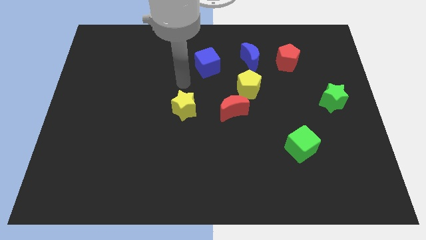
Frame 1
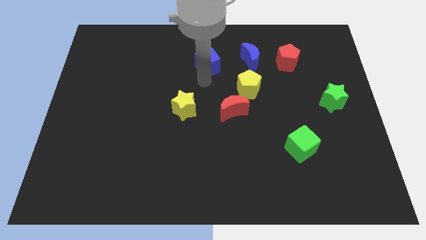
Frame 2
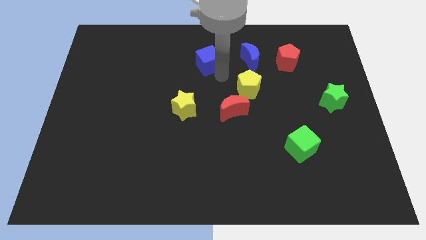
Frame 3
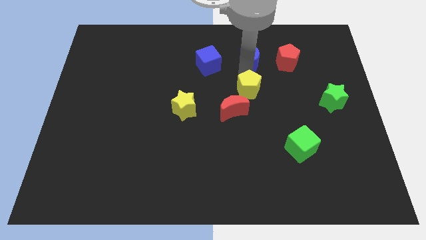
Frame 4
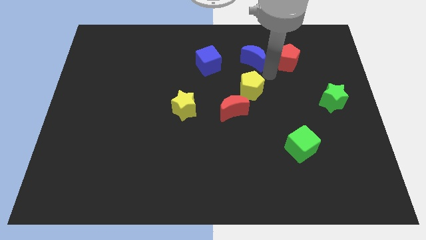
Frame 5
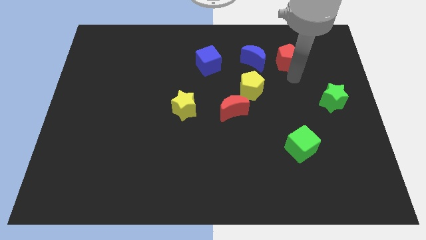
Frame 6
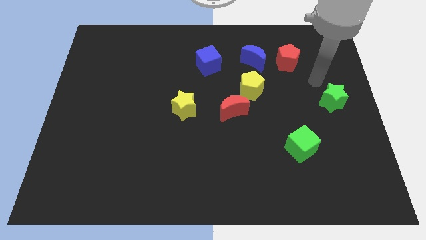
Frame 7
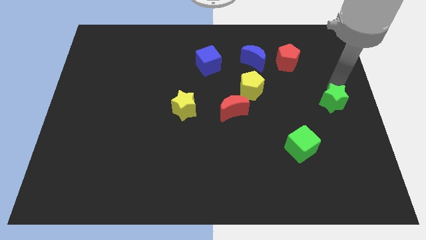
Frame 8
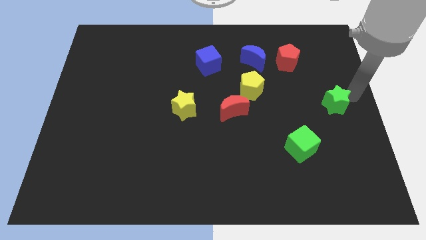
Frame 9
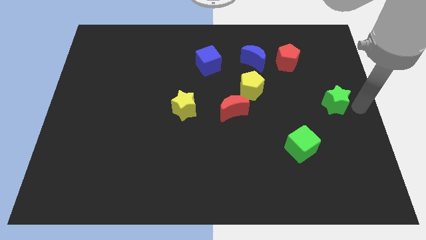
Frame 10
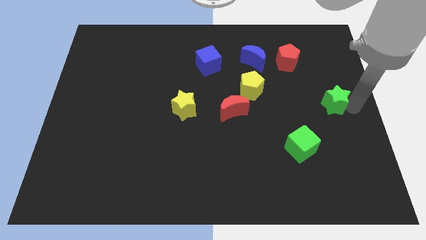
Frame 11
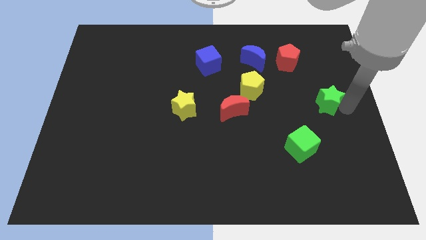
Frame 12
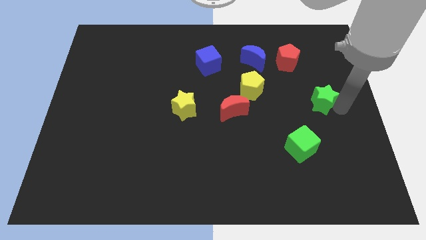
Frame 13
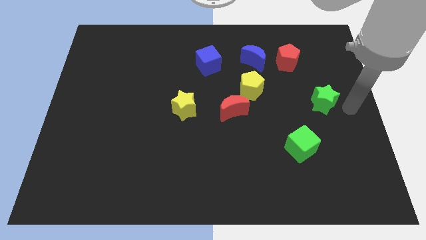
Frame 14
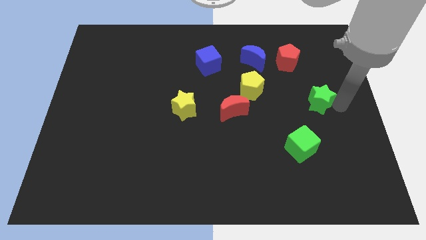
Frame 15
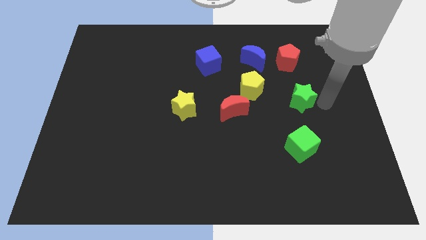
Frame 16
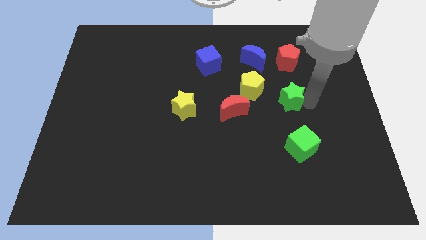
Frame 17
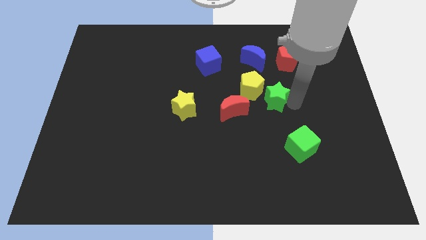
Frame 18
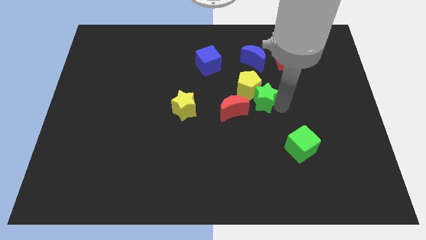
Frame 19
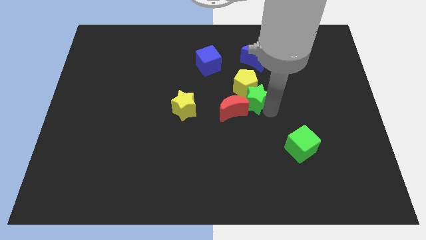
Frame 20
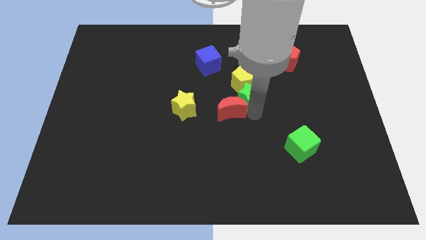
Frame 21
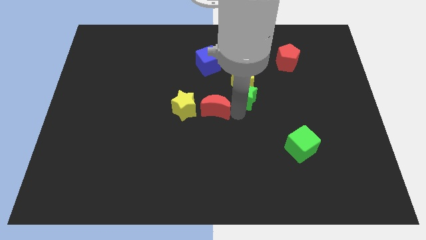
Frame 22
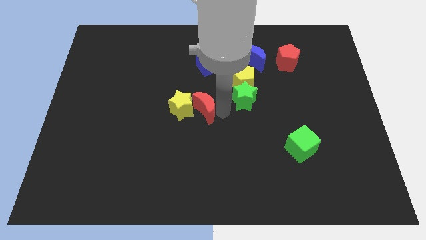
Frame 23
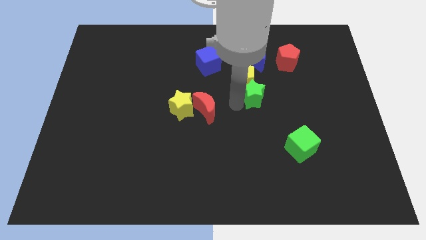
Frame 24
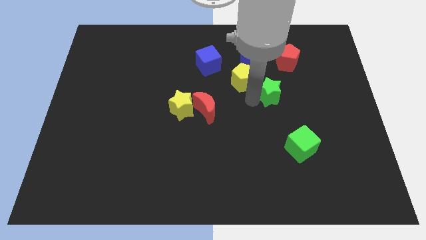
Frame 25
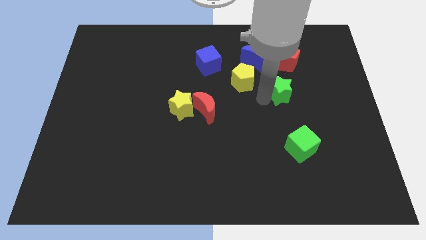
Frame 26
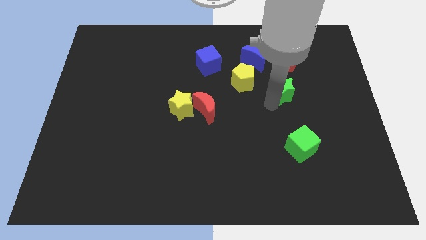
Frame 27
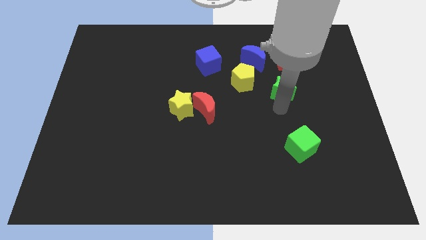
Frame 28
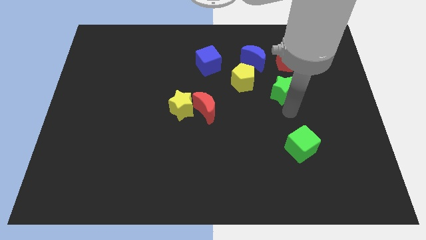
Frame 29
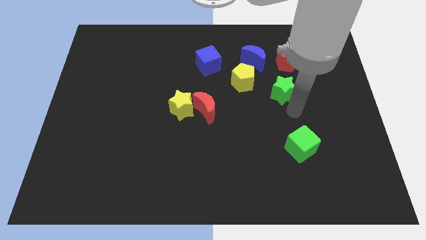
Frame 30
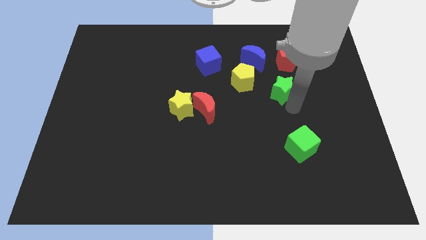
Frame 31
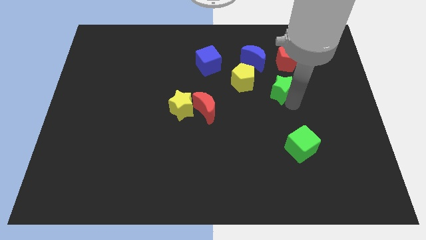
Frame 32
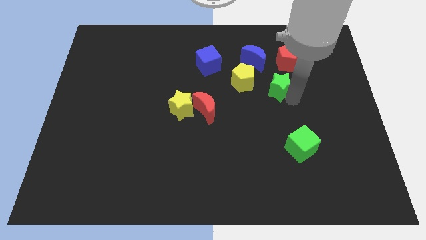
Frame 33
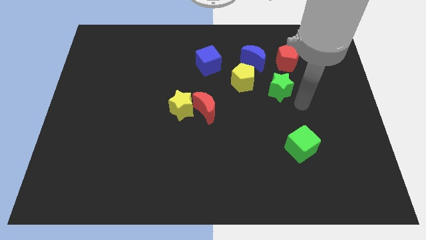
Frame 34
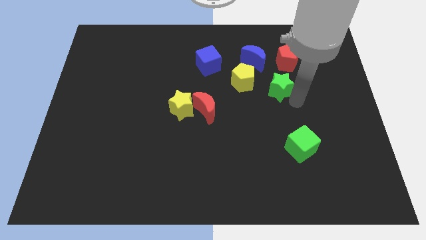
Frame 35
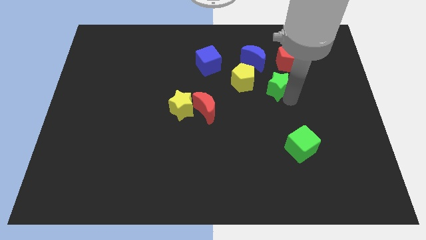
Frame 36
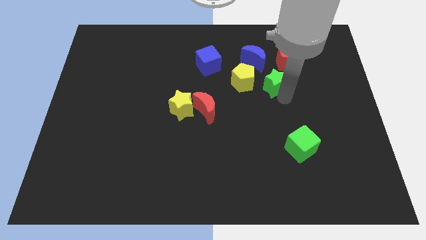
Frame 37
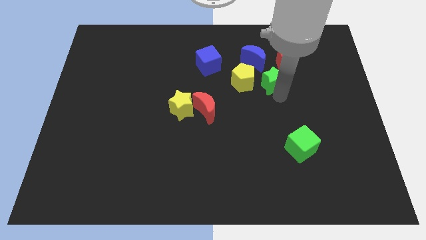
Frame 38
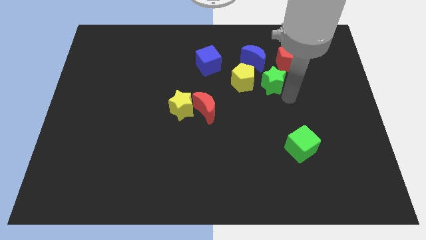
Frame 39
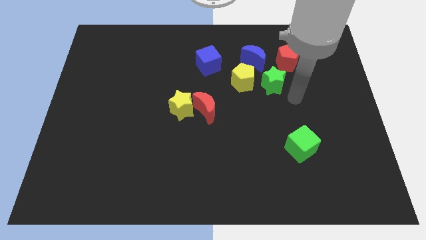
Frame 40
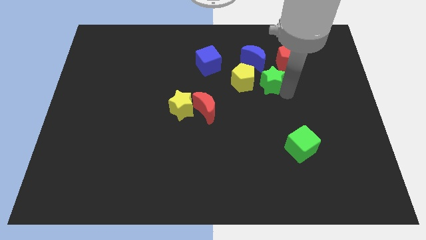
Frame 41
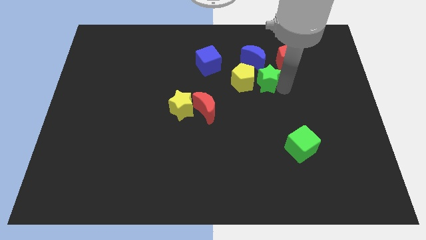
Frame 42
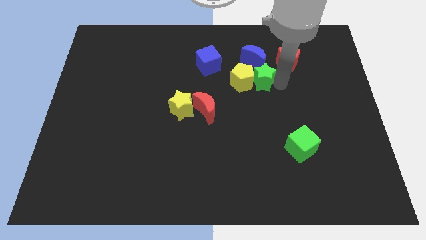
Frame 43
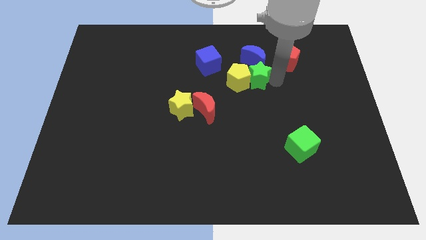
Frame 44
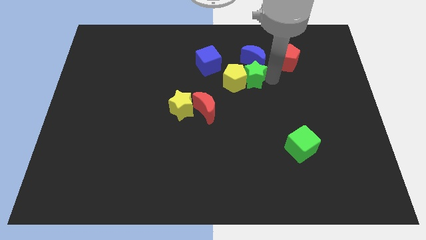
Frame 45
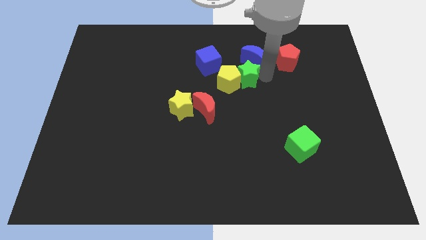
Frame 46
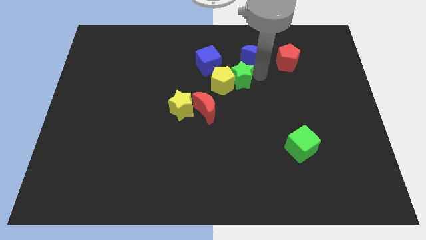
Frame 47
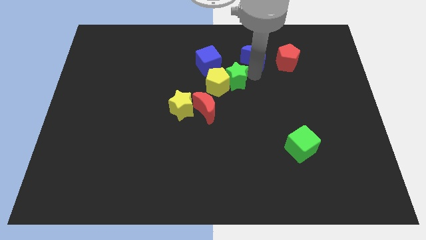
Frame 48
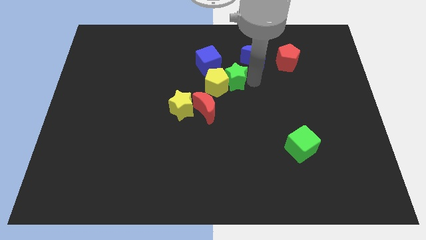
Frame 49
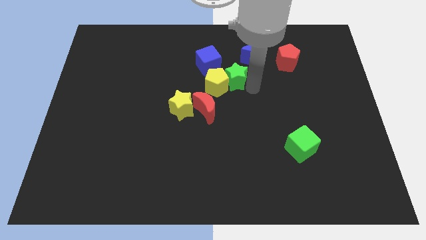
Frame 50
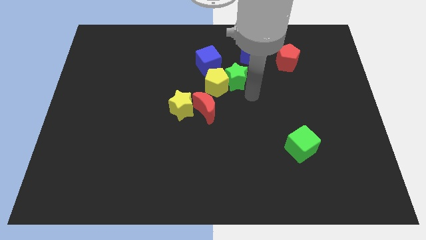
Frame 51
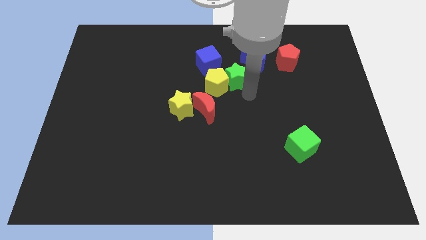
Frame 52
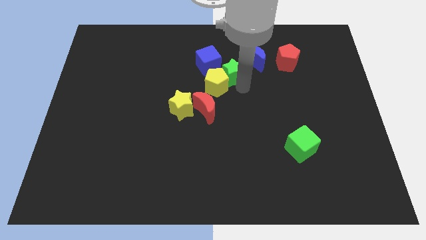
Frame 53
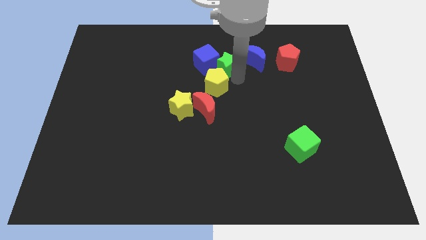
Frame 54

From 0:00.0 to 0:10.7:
put the green star next to the blue cube

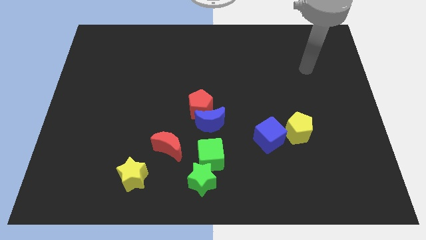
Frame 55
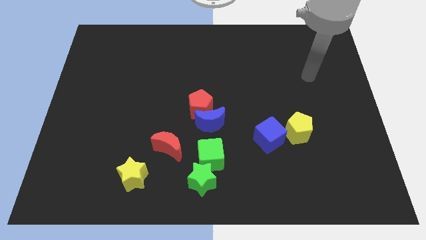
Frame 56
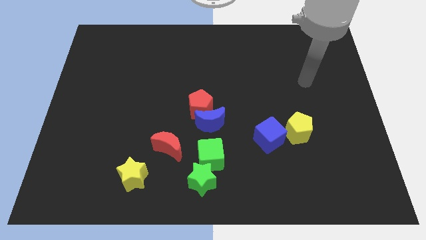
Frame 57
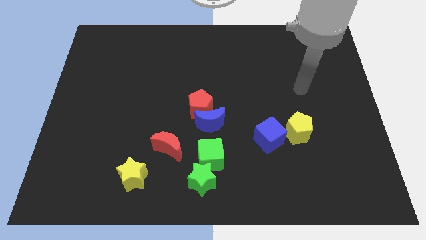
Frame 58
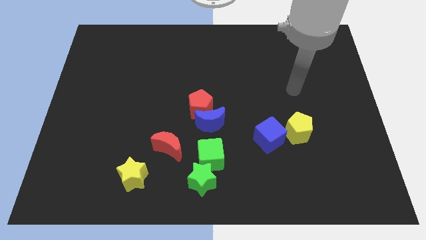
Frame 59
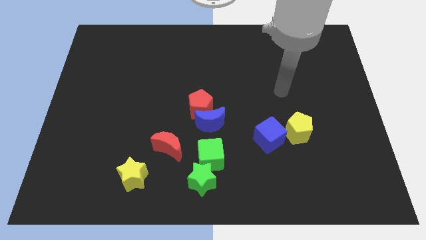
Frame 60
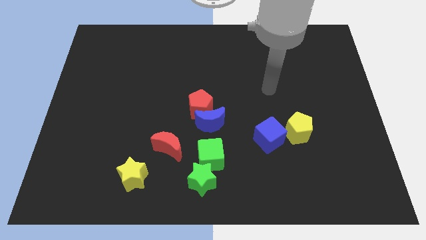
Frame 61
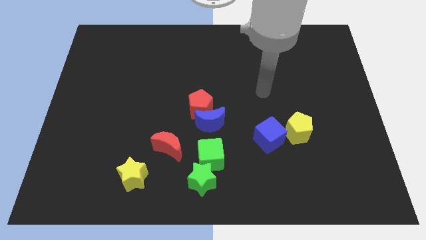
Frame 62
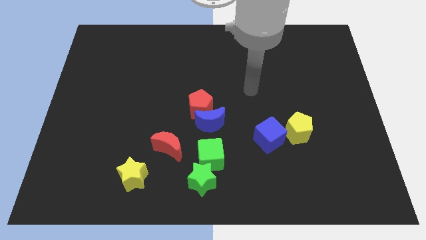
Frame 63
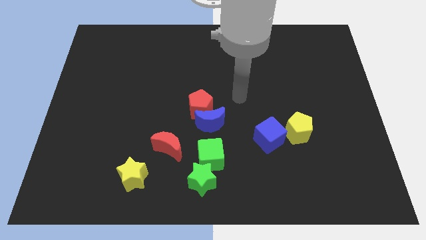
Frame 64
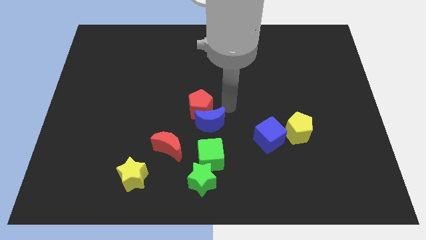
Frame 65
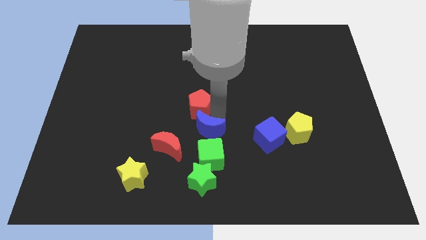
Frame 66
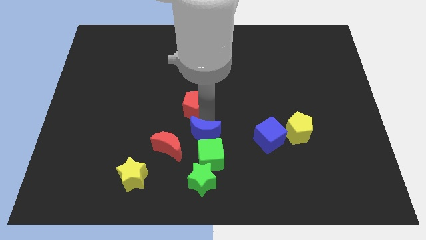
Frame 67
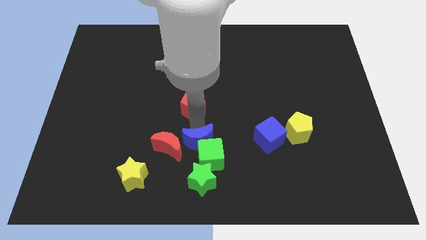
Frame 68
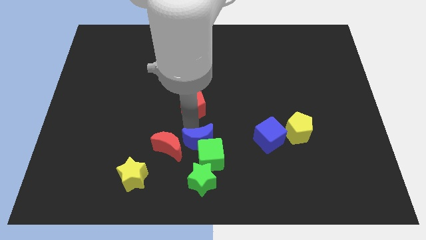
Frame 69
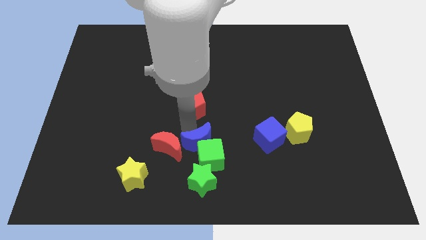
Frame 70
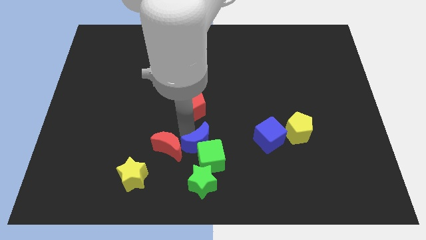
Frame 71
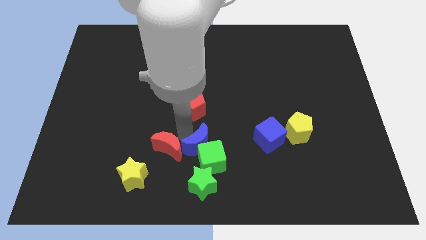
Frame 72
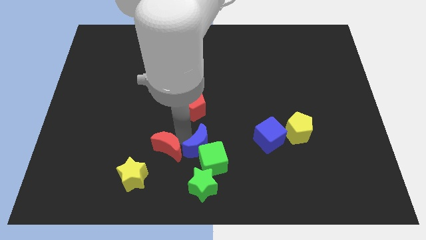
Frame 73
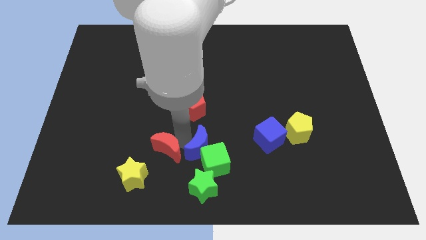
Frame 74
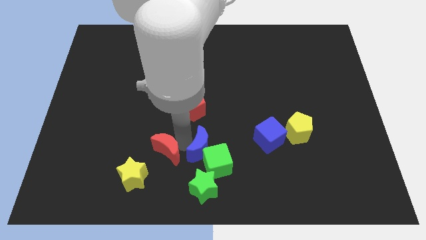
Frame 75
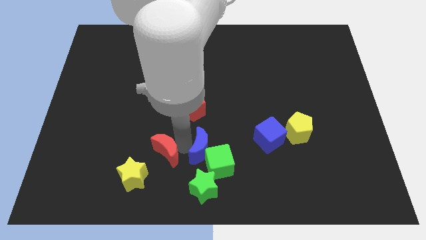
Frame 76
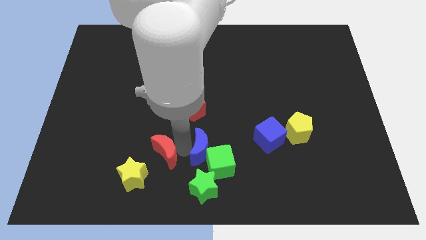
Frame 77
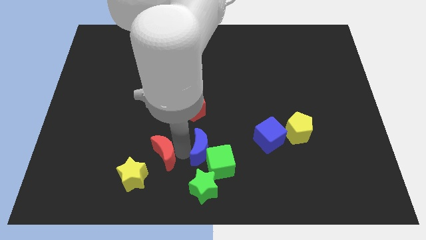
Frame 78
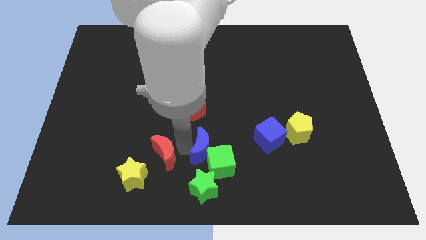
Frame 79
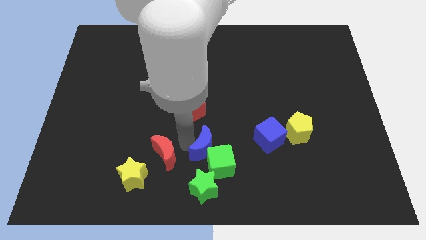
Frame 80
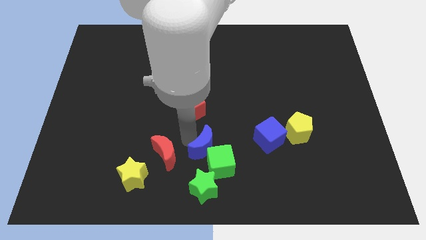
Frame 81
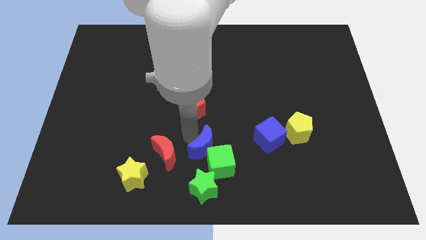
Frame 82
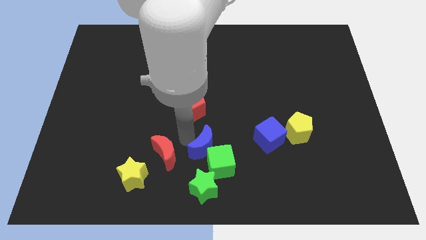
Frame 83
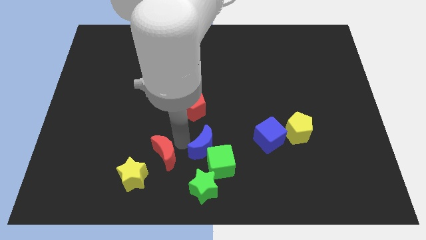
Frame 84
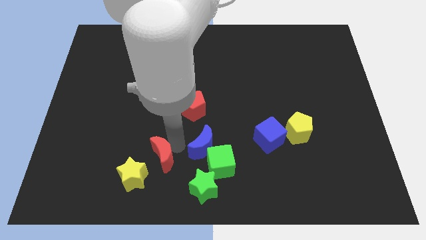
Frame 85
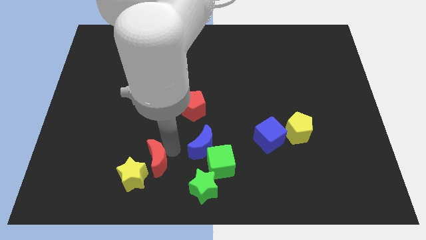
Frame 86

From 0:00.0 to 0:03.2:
put the red moon towards the yellow star

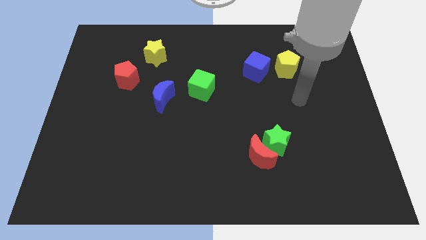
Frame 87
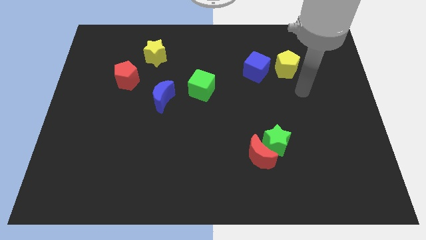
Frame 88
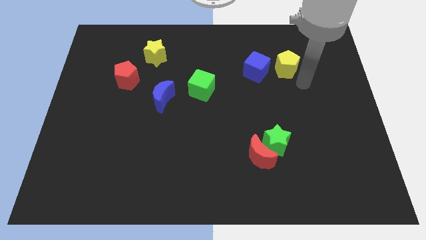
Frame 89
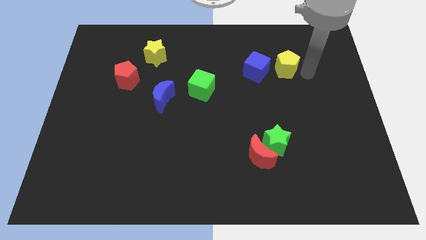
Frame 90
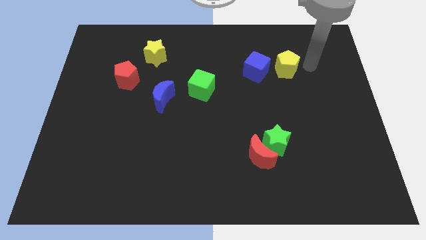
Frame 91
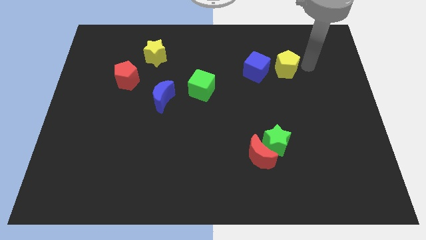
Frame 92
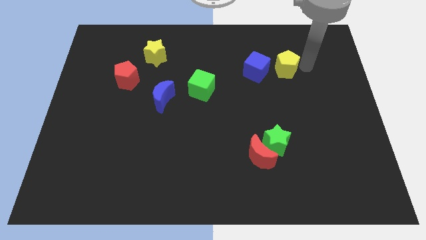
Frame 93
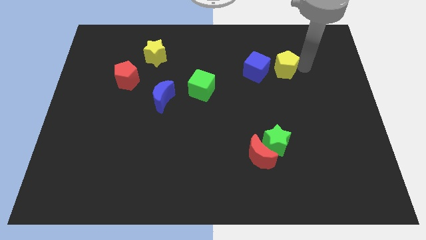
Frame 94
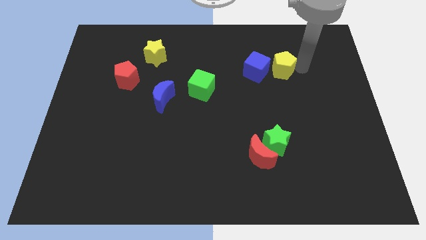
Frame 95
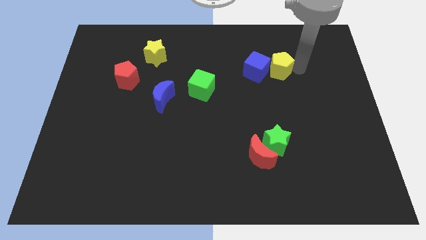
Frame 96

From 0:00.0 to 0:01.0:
slide the yellow pentagon next to the blue cube
